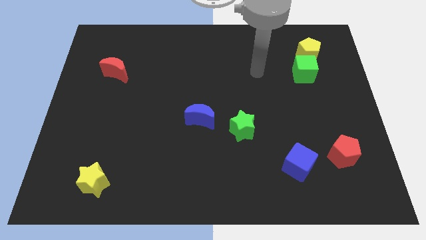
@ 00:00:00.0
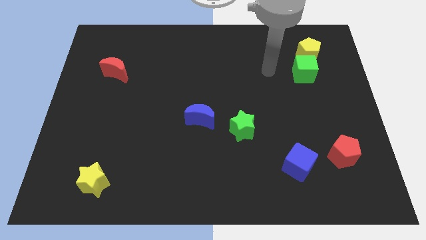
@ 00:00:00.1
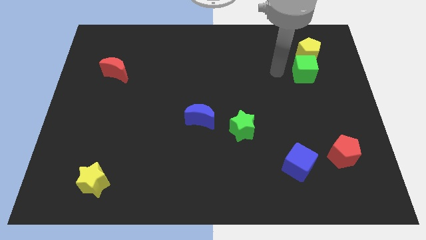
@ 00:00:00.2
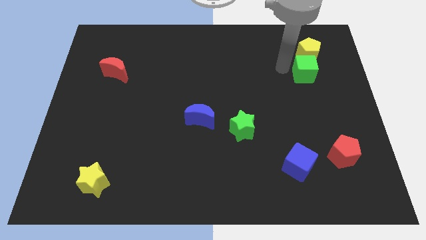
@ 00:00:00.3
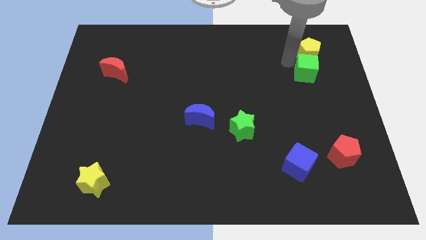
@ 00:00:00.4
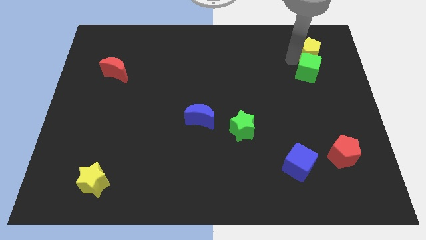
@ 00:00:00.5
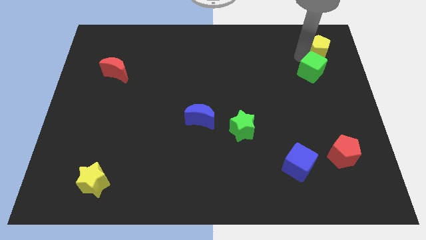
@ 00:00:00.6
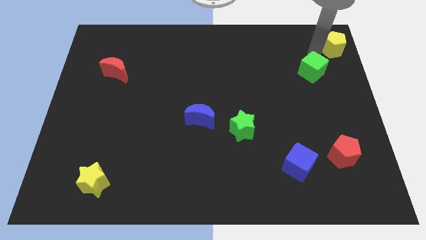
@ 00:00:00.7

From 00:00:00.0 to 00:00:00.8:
move the green cube away from the yellow pentagon

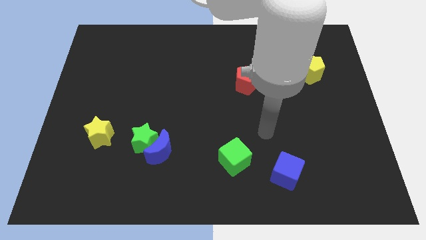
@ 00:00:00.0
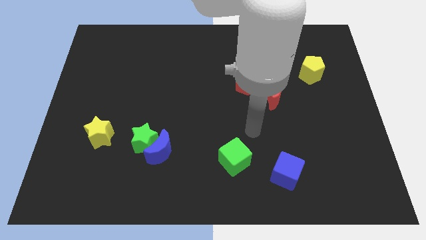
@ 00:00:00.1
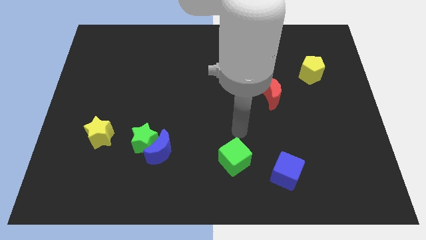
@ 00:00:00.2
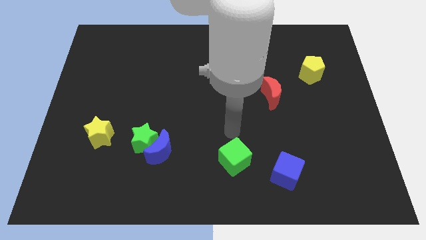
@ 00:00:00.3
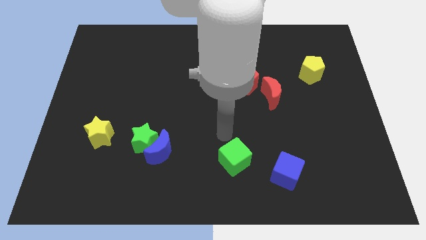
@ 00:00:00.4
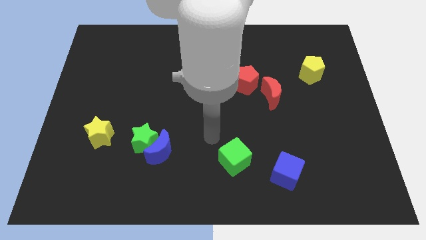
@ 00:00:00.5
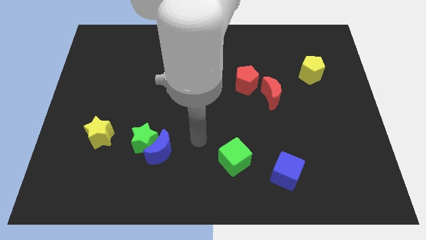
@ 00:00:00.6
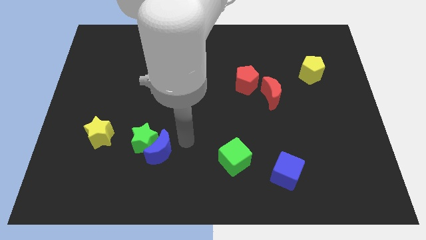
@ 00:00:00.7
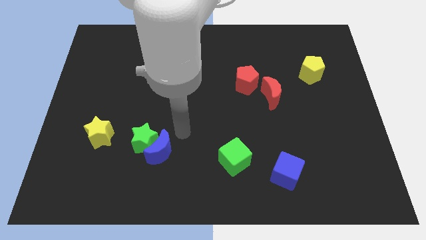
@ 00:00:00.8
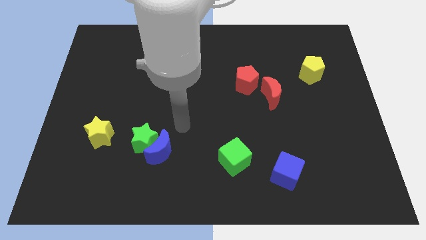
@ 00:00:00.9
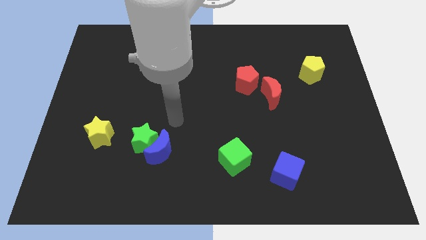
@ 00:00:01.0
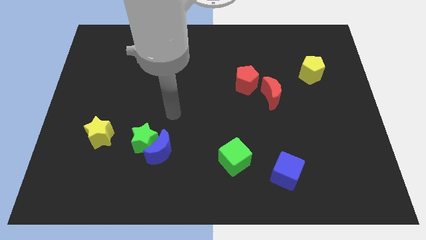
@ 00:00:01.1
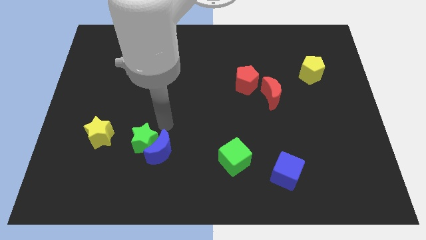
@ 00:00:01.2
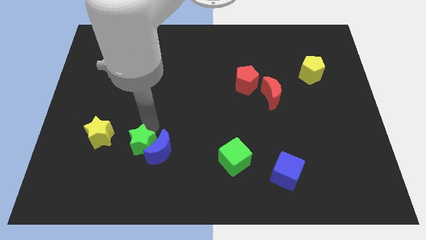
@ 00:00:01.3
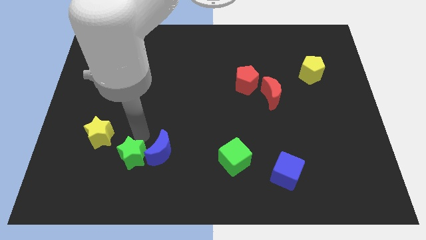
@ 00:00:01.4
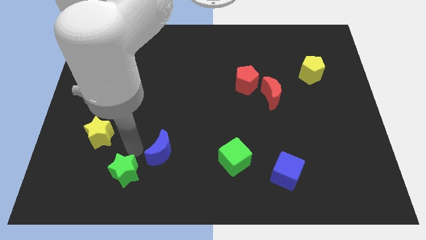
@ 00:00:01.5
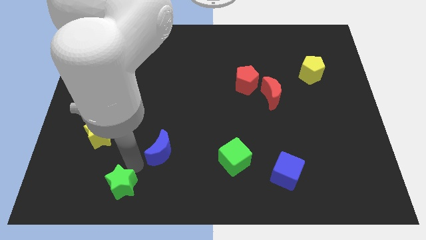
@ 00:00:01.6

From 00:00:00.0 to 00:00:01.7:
separate the blue moon from the green star

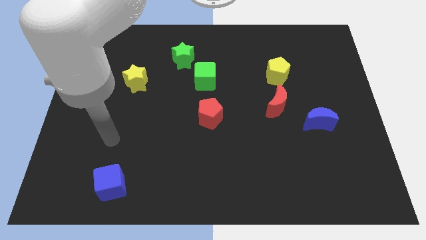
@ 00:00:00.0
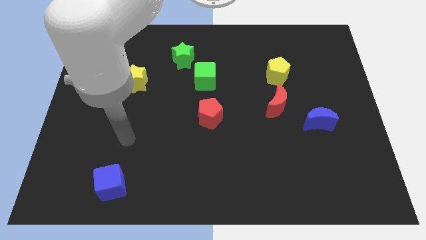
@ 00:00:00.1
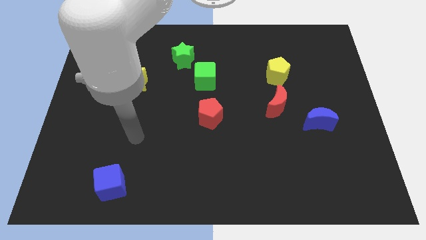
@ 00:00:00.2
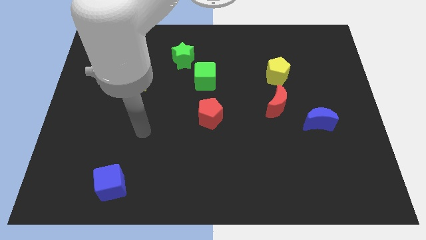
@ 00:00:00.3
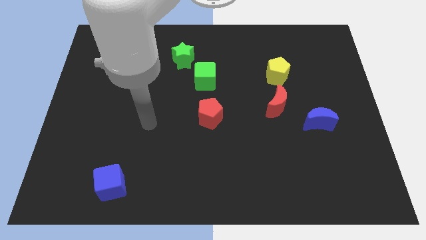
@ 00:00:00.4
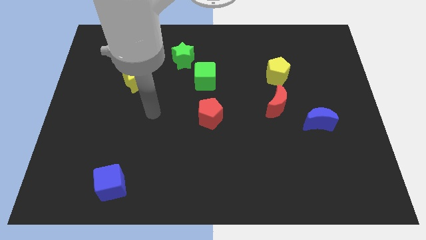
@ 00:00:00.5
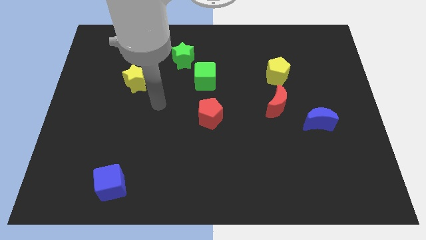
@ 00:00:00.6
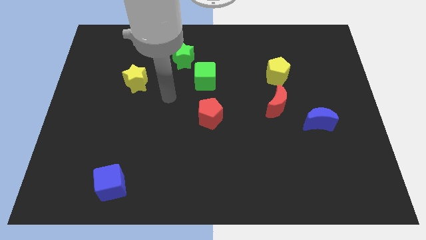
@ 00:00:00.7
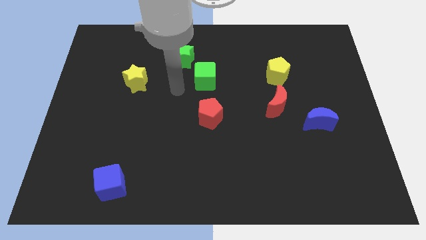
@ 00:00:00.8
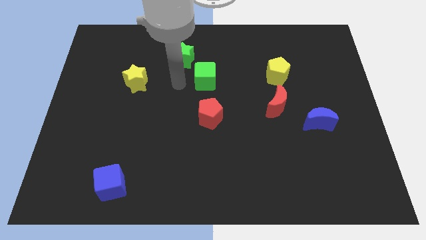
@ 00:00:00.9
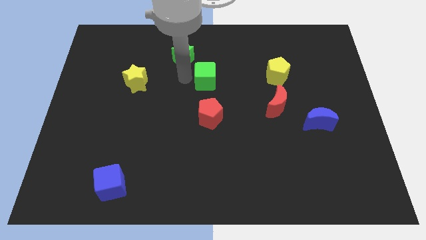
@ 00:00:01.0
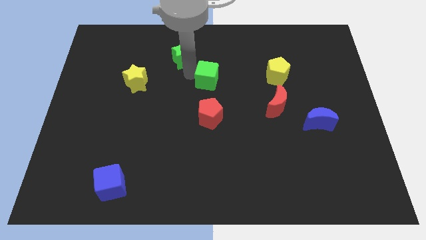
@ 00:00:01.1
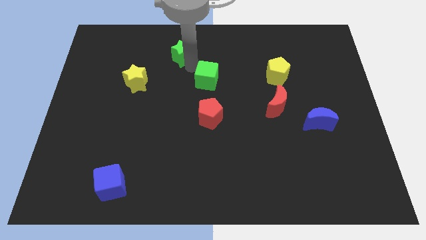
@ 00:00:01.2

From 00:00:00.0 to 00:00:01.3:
separate the green cube from the green star

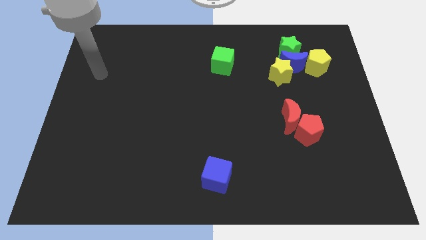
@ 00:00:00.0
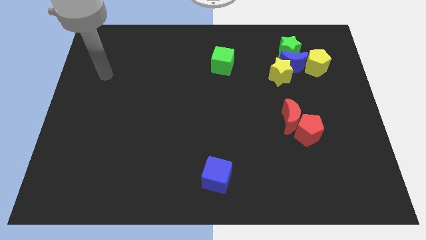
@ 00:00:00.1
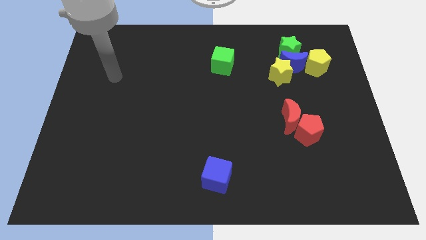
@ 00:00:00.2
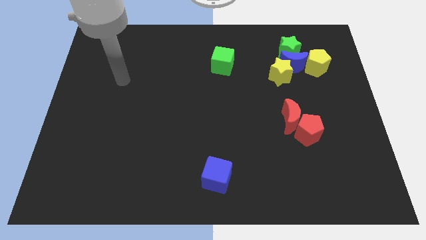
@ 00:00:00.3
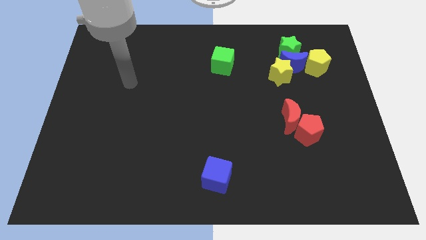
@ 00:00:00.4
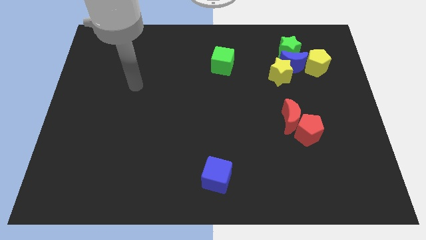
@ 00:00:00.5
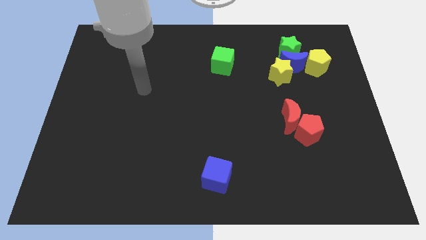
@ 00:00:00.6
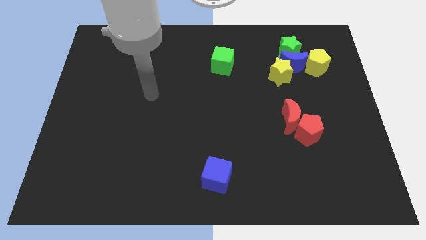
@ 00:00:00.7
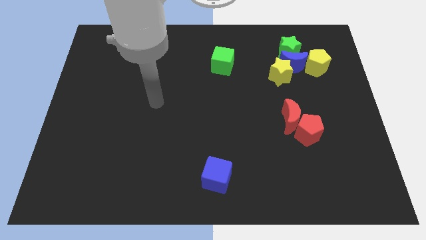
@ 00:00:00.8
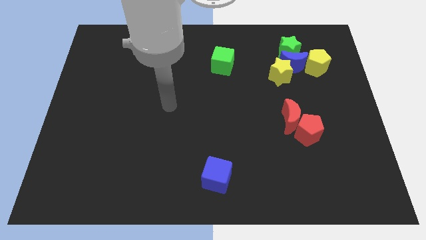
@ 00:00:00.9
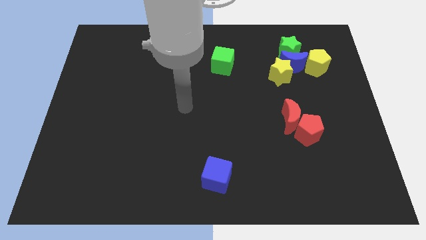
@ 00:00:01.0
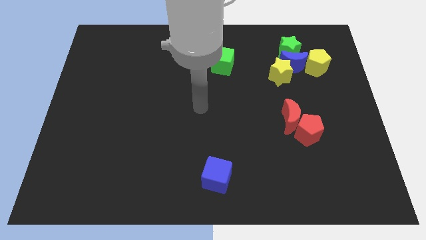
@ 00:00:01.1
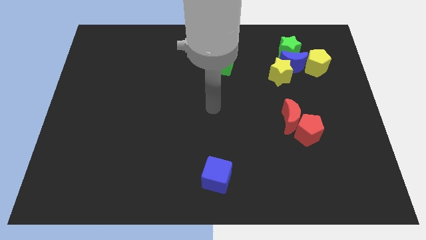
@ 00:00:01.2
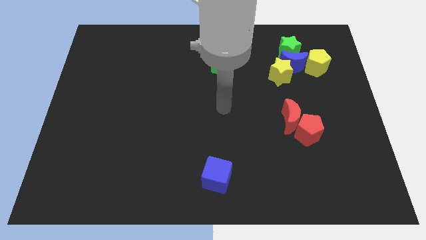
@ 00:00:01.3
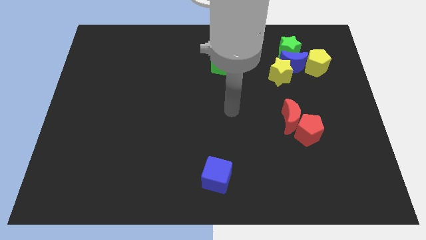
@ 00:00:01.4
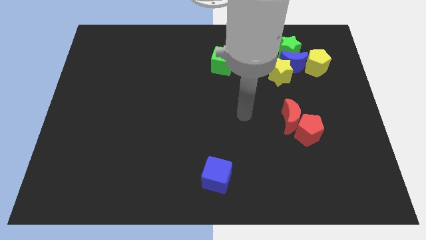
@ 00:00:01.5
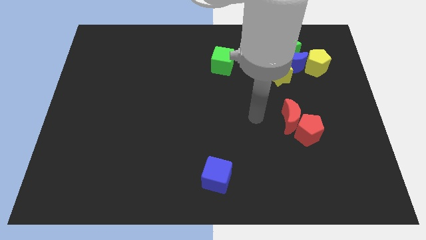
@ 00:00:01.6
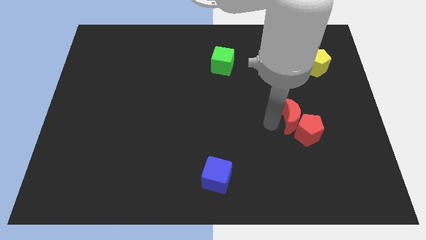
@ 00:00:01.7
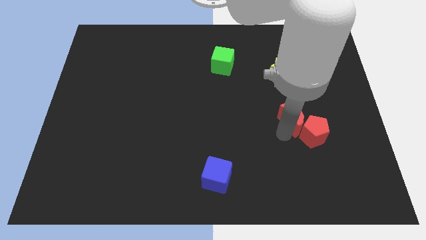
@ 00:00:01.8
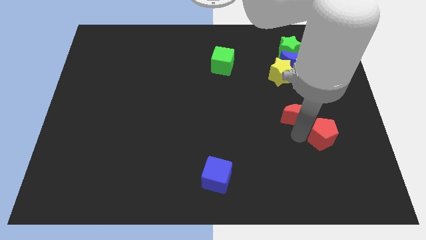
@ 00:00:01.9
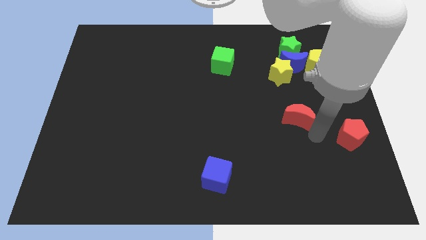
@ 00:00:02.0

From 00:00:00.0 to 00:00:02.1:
pull the red moon apart from the red pentagon

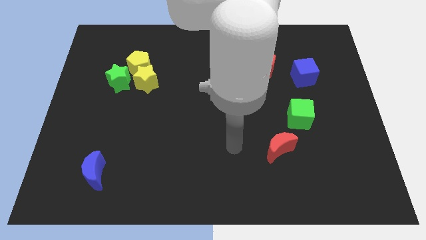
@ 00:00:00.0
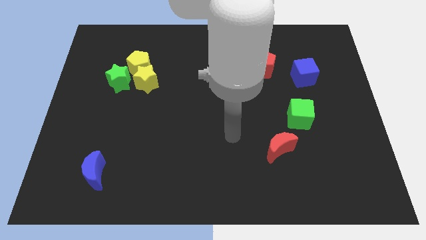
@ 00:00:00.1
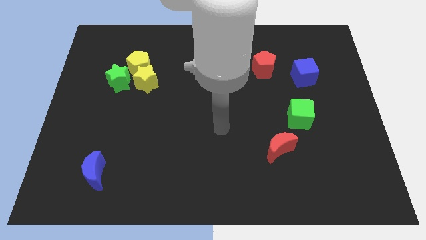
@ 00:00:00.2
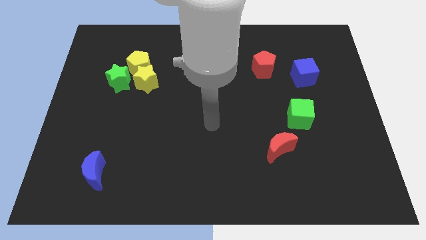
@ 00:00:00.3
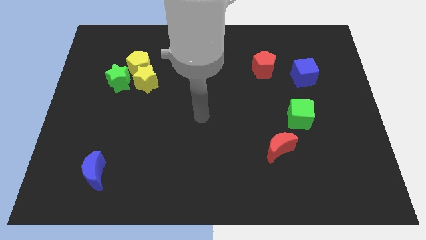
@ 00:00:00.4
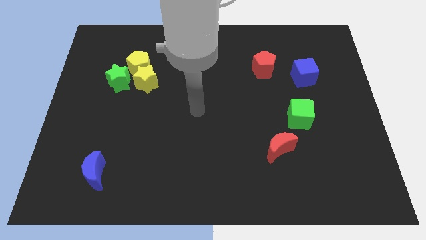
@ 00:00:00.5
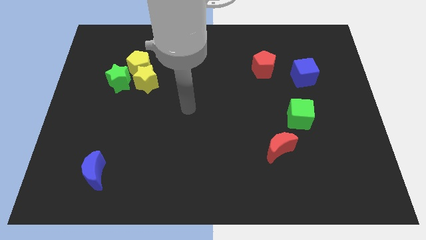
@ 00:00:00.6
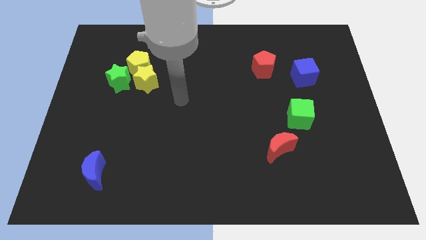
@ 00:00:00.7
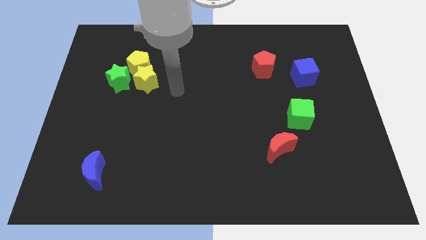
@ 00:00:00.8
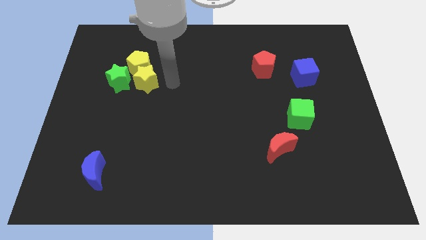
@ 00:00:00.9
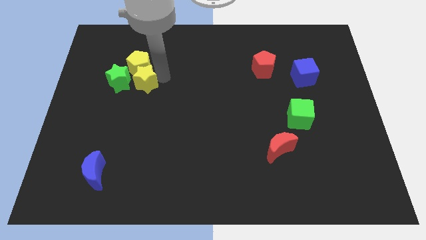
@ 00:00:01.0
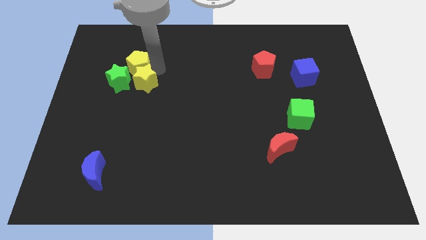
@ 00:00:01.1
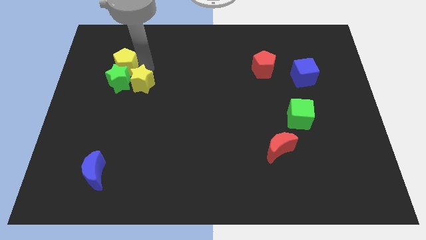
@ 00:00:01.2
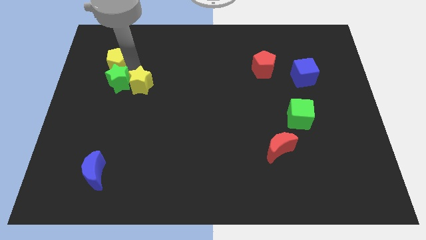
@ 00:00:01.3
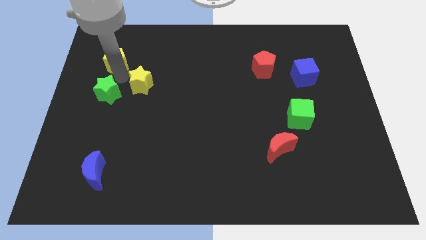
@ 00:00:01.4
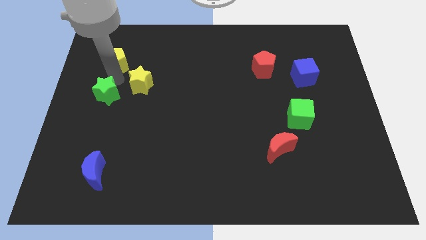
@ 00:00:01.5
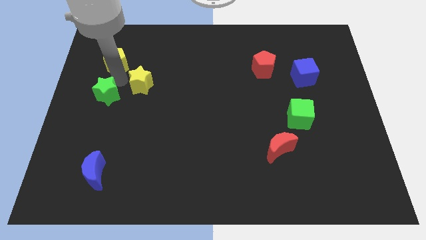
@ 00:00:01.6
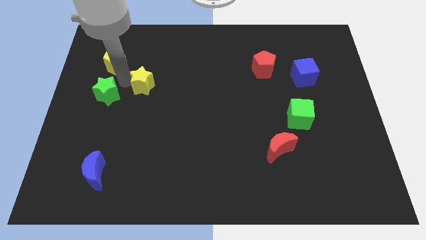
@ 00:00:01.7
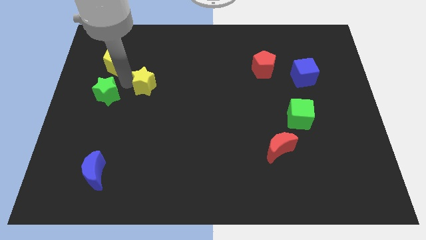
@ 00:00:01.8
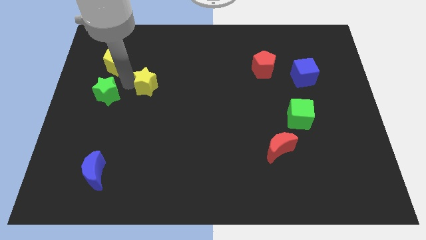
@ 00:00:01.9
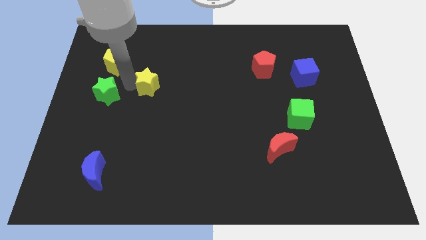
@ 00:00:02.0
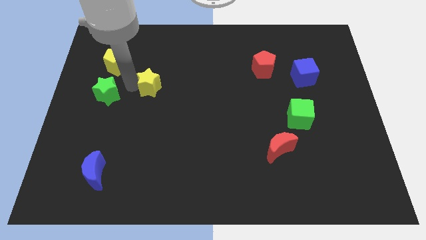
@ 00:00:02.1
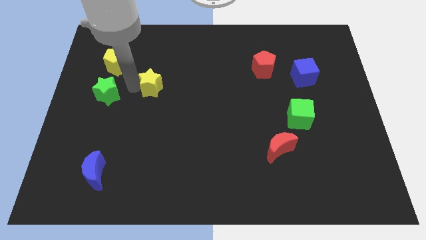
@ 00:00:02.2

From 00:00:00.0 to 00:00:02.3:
move the yellow star away from the yellow pentagon and green star

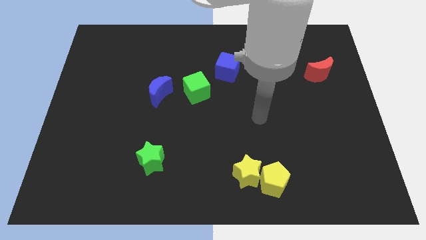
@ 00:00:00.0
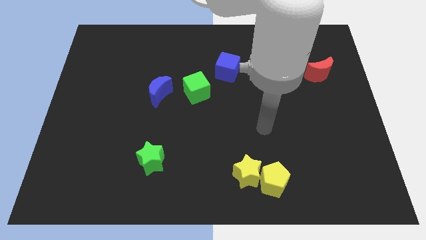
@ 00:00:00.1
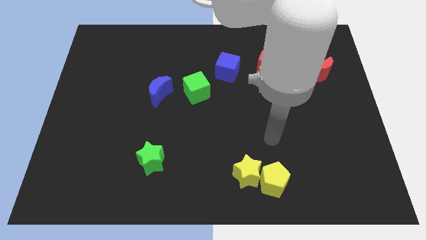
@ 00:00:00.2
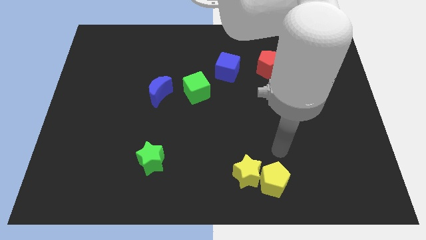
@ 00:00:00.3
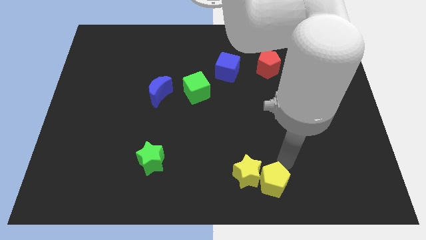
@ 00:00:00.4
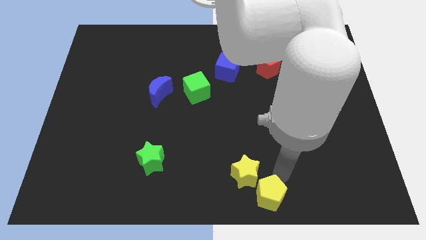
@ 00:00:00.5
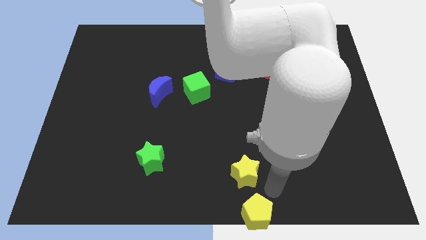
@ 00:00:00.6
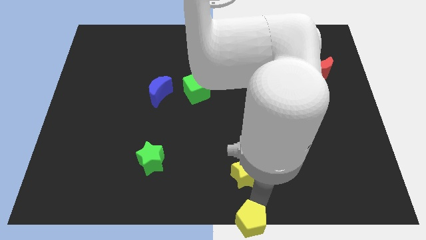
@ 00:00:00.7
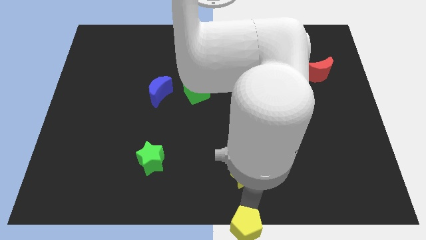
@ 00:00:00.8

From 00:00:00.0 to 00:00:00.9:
move the yellow star away from the yellow pentagon
